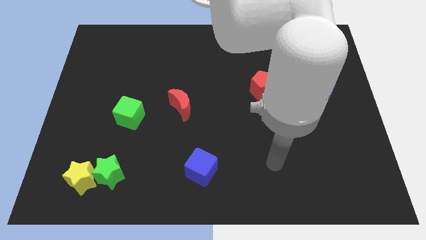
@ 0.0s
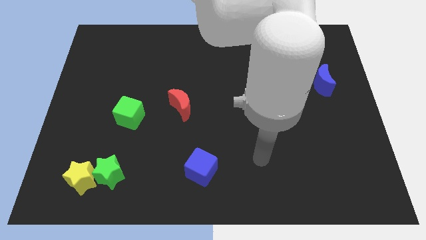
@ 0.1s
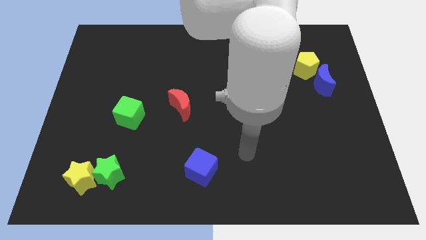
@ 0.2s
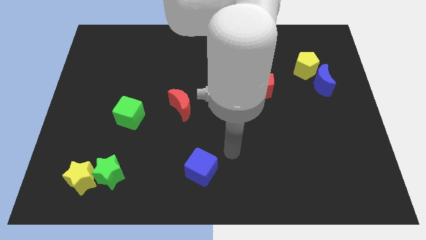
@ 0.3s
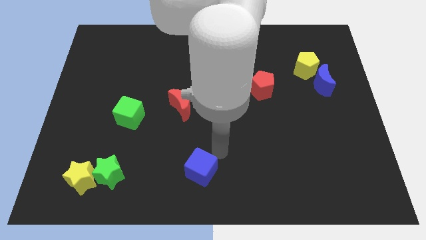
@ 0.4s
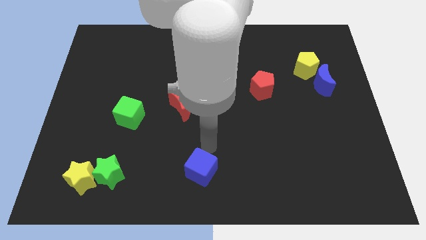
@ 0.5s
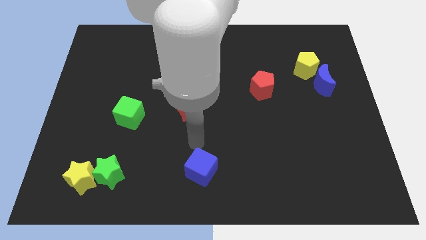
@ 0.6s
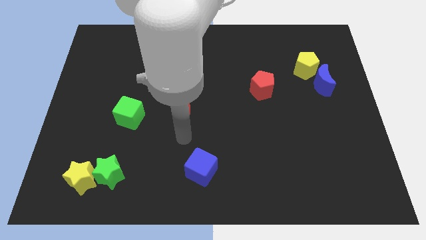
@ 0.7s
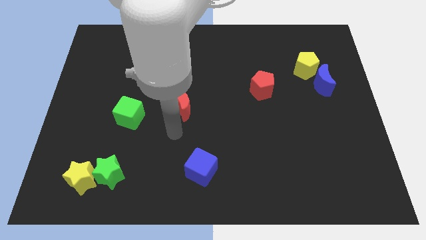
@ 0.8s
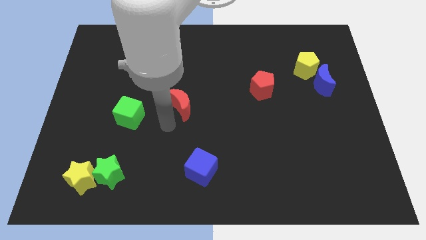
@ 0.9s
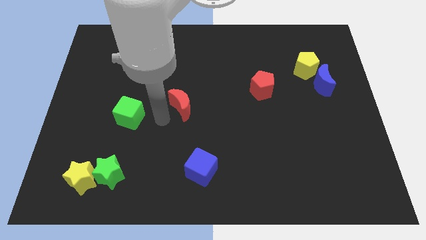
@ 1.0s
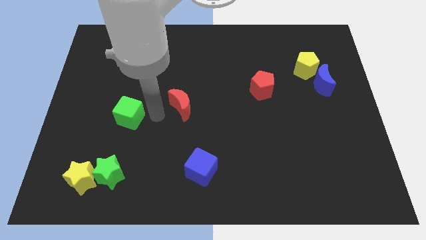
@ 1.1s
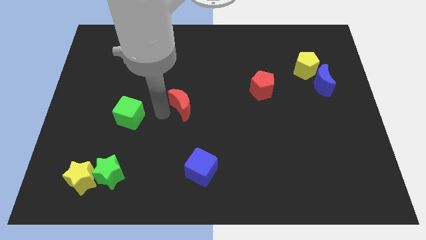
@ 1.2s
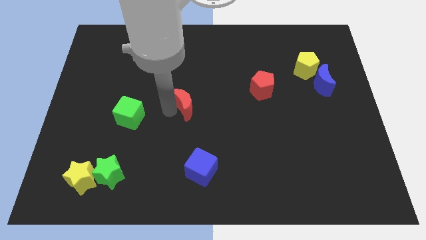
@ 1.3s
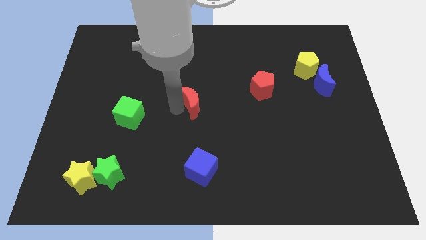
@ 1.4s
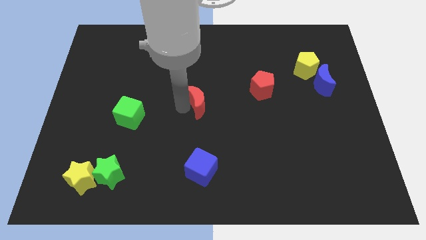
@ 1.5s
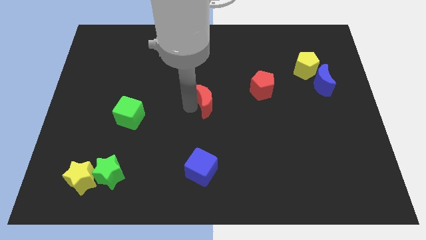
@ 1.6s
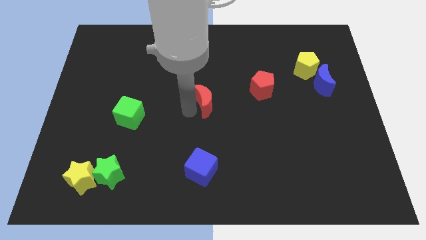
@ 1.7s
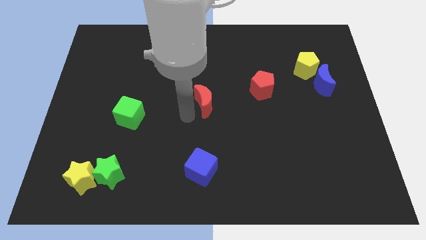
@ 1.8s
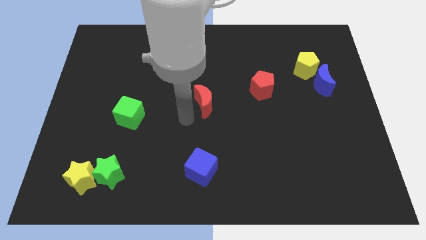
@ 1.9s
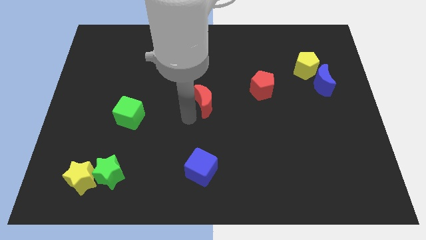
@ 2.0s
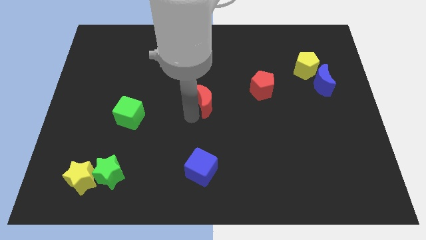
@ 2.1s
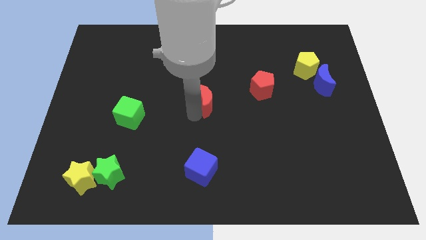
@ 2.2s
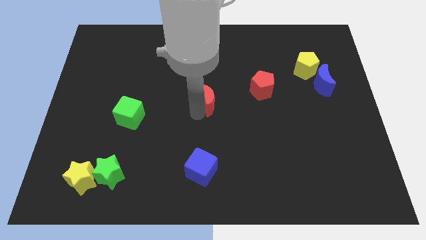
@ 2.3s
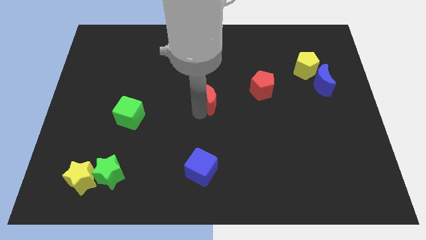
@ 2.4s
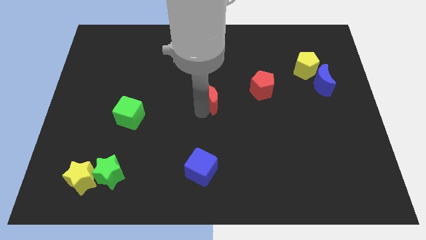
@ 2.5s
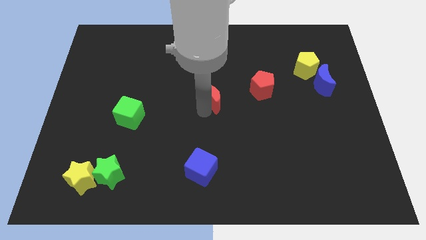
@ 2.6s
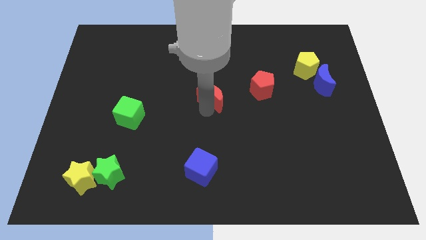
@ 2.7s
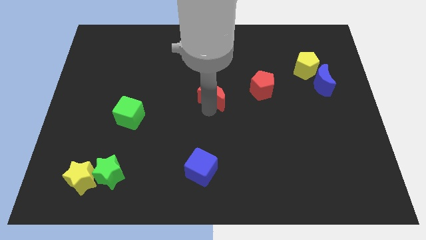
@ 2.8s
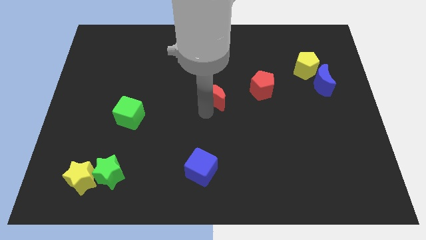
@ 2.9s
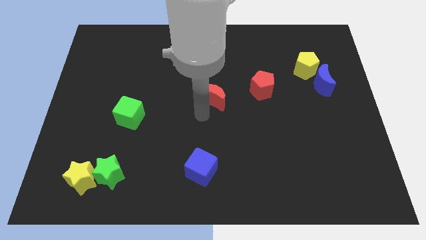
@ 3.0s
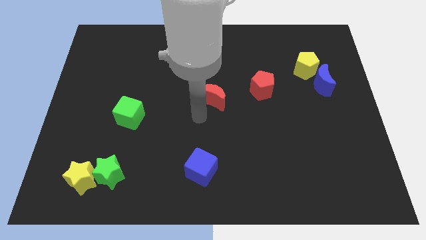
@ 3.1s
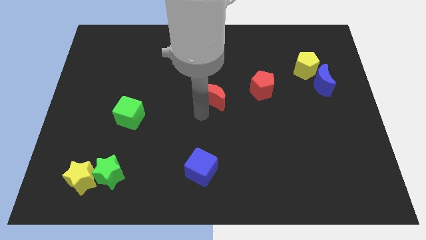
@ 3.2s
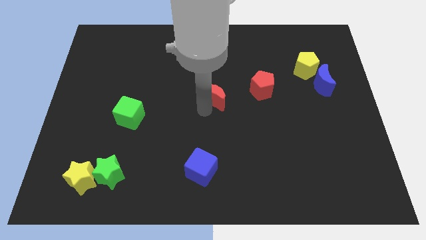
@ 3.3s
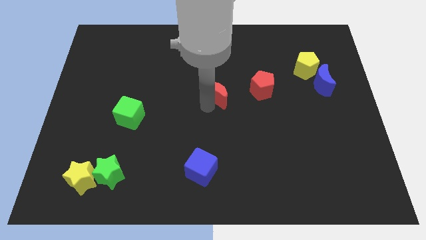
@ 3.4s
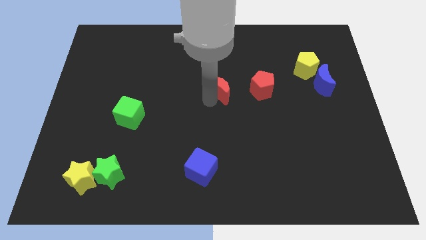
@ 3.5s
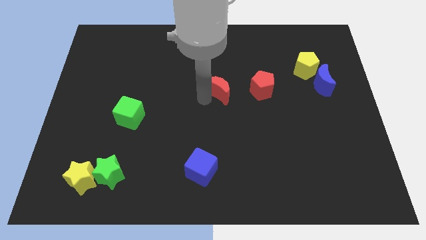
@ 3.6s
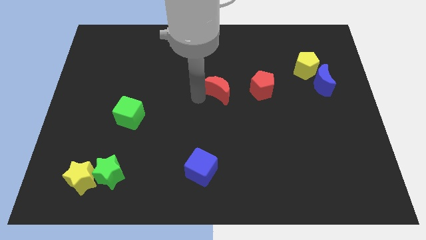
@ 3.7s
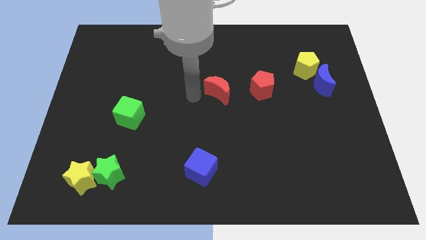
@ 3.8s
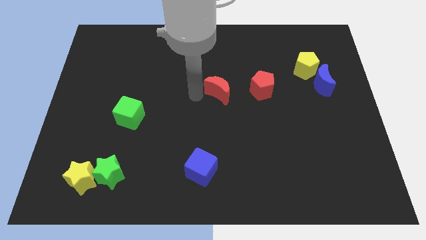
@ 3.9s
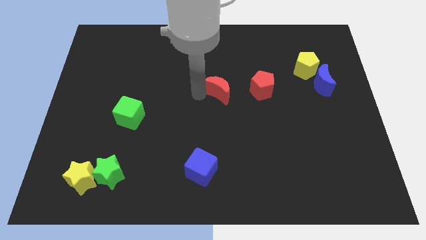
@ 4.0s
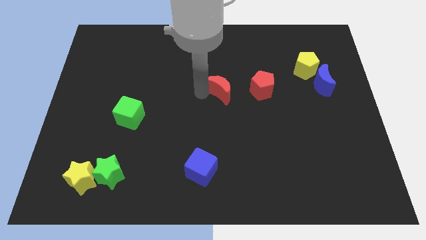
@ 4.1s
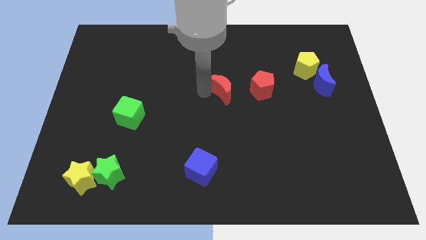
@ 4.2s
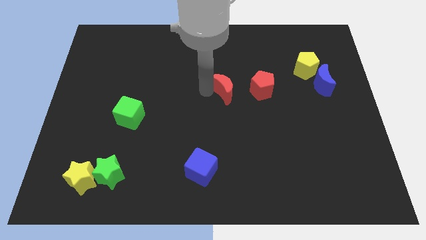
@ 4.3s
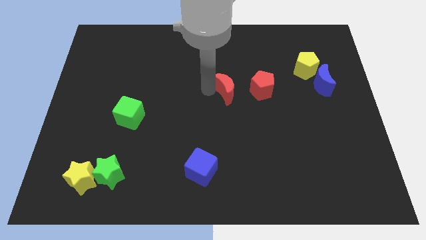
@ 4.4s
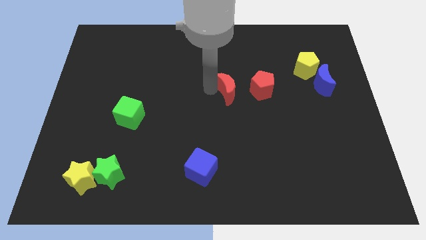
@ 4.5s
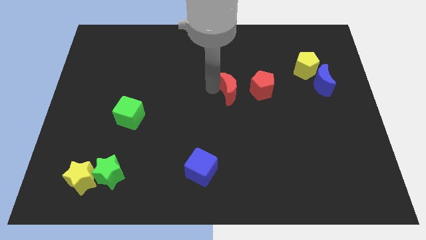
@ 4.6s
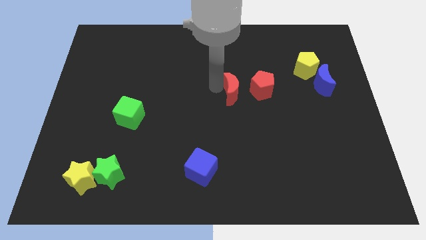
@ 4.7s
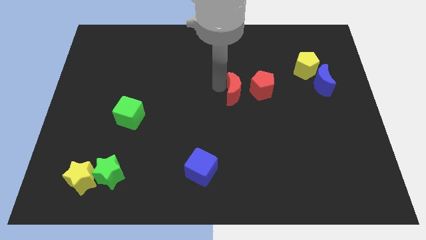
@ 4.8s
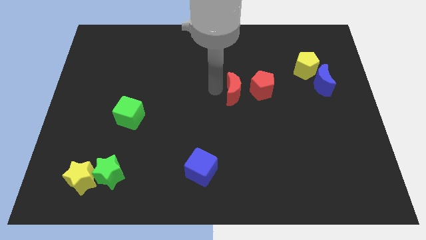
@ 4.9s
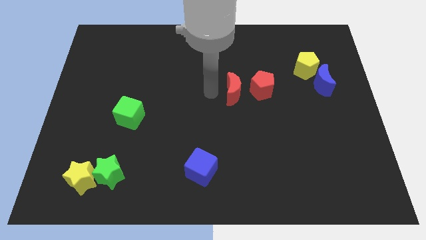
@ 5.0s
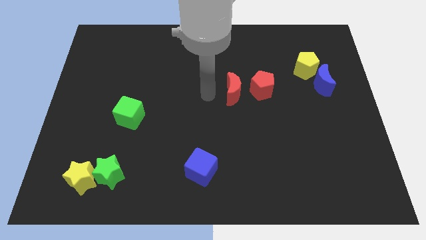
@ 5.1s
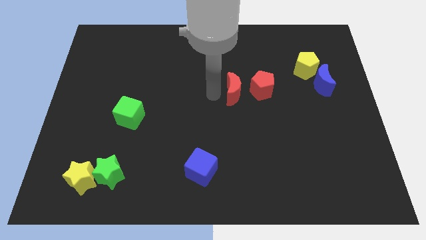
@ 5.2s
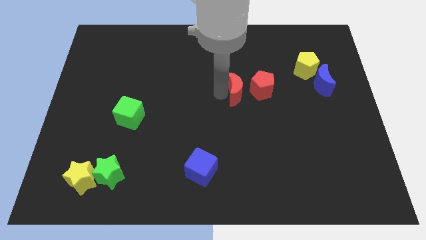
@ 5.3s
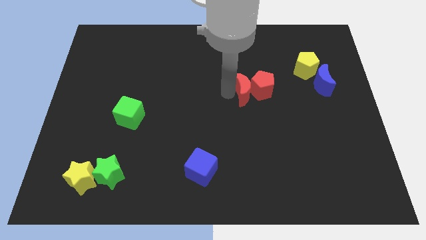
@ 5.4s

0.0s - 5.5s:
push the red moon towards the red pentagon

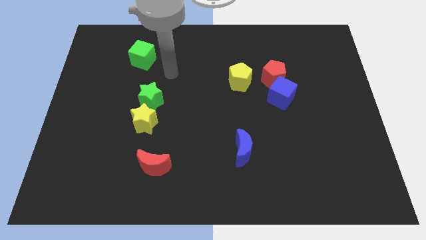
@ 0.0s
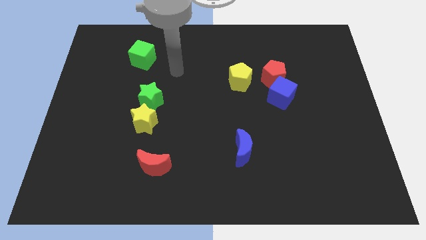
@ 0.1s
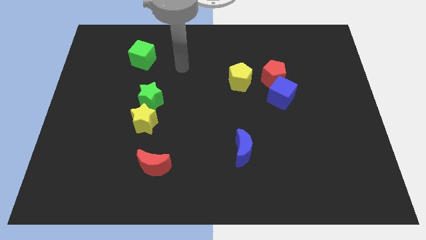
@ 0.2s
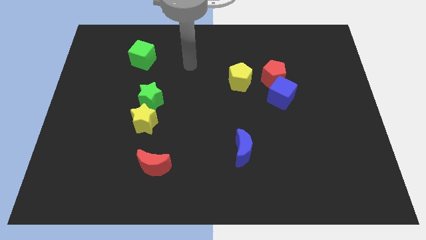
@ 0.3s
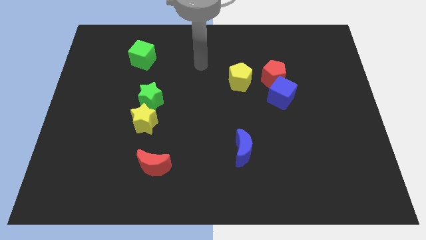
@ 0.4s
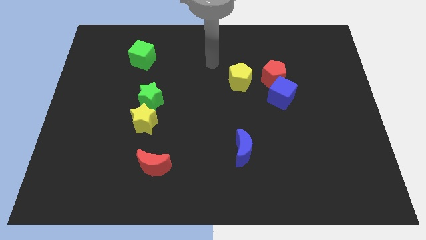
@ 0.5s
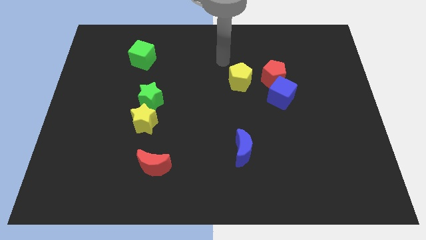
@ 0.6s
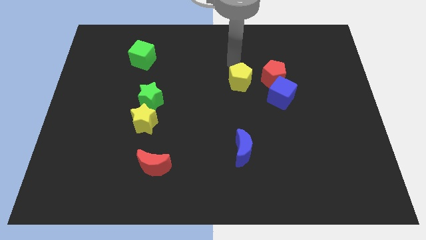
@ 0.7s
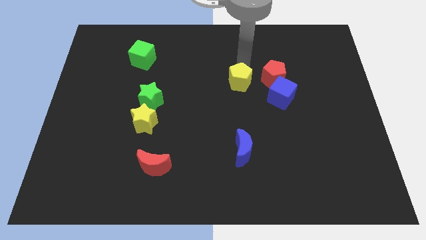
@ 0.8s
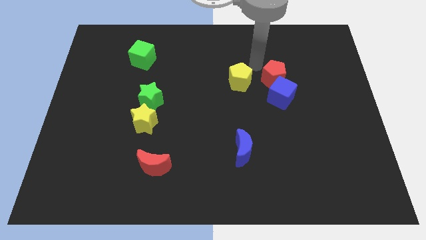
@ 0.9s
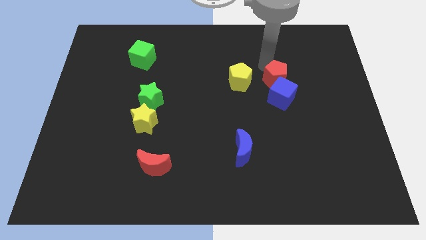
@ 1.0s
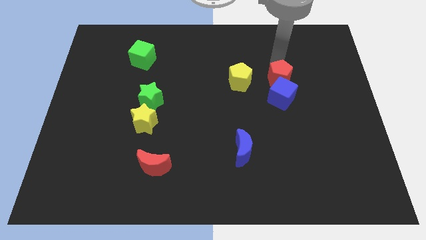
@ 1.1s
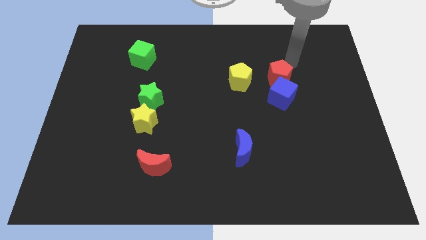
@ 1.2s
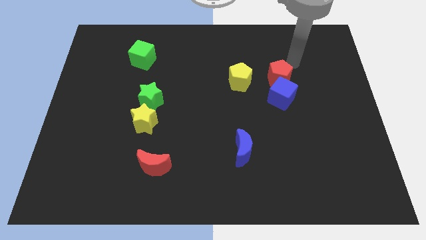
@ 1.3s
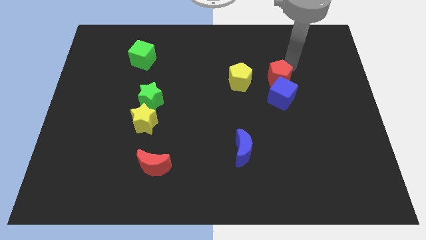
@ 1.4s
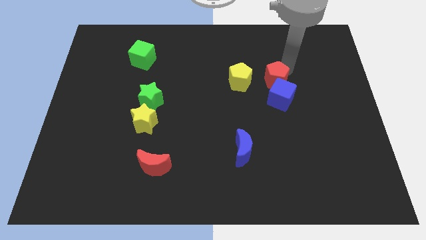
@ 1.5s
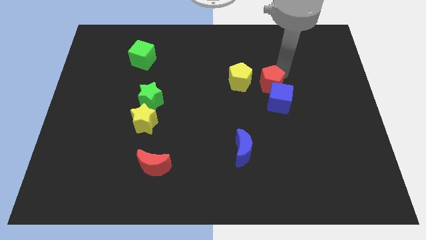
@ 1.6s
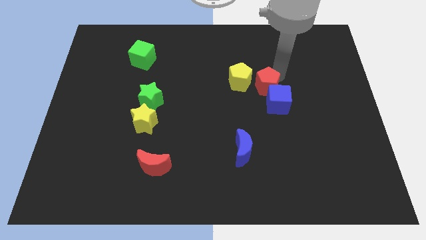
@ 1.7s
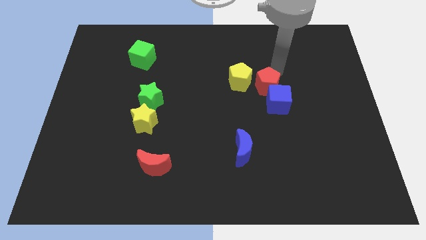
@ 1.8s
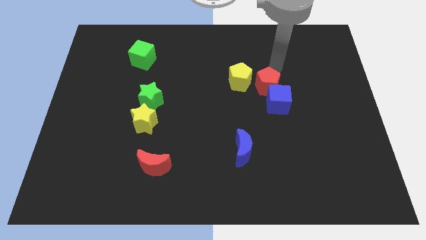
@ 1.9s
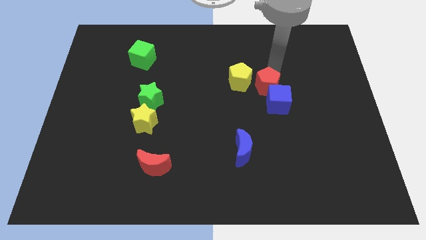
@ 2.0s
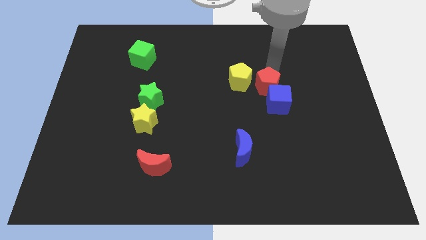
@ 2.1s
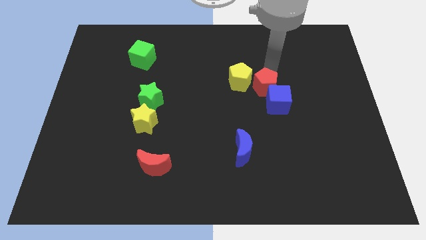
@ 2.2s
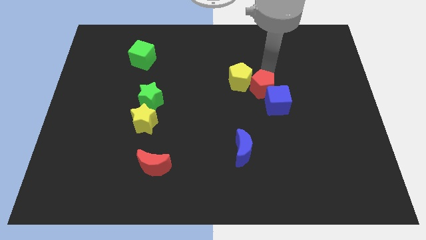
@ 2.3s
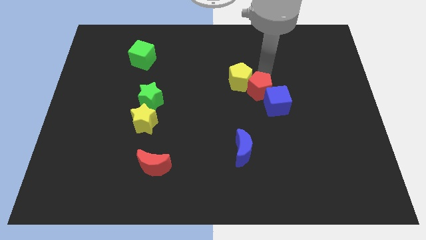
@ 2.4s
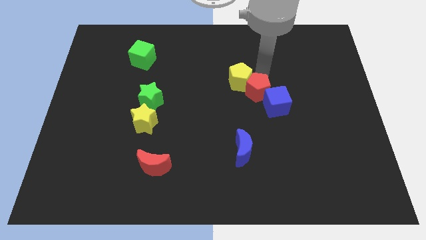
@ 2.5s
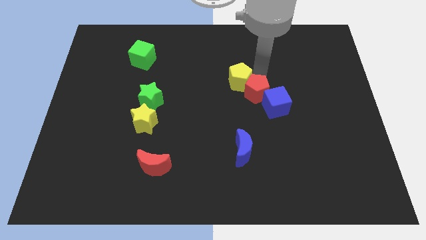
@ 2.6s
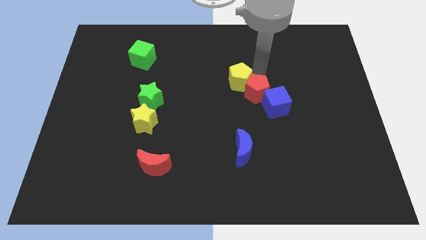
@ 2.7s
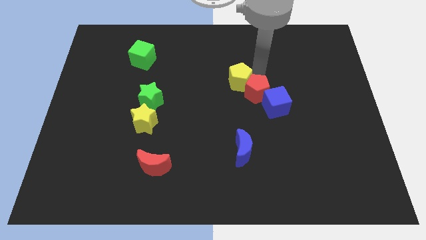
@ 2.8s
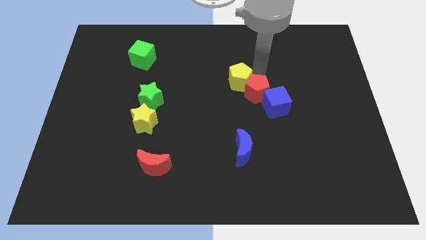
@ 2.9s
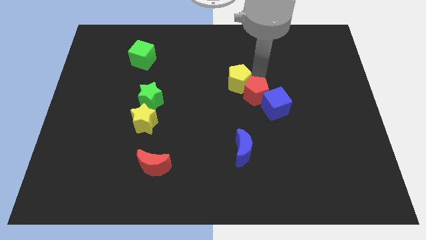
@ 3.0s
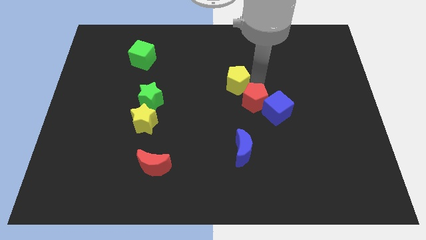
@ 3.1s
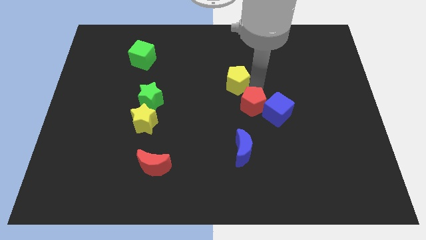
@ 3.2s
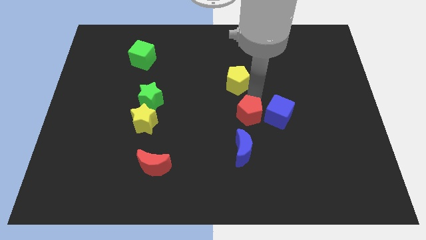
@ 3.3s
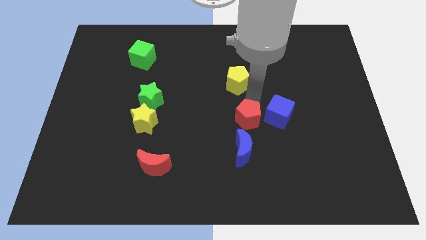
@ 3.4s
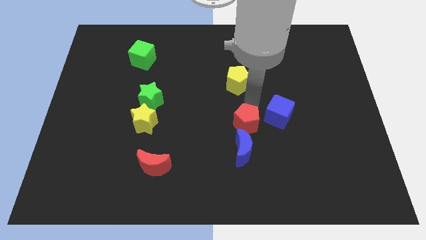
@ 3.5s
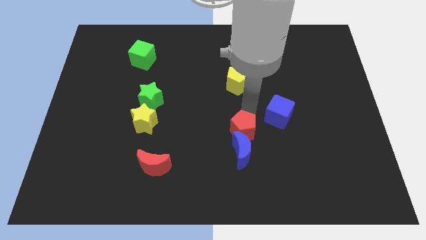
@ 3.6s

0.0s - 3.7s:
slide the red pentagon close to the blue moon
